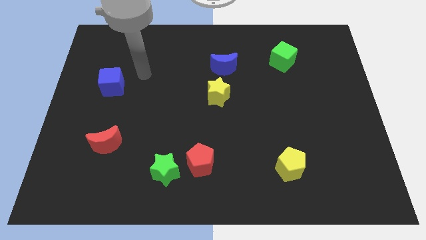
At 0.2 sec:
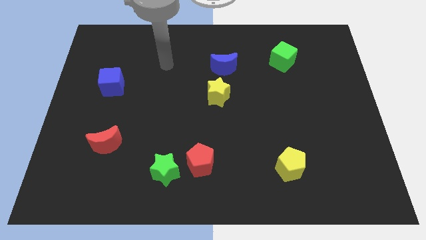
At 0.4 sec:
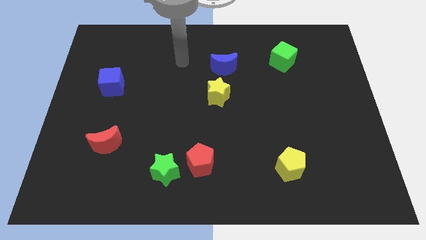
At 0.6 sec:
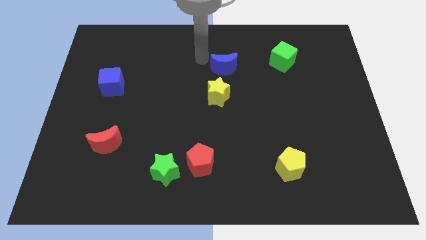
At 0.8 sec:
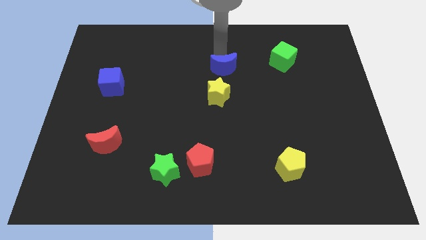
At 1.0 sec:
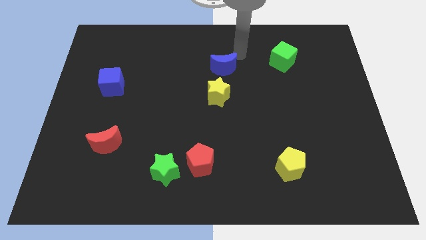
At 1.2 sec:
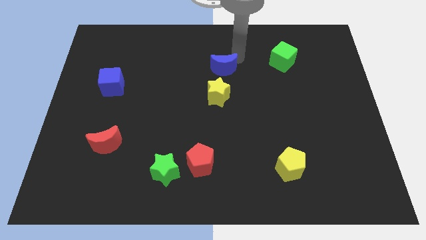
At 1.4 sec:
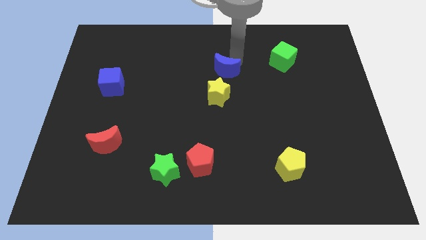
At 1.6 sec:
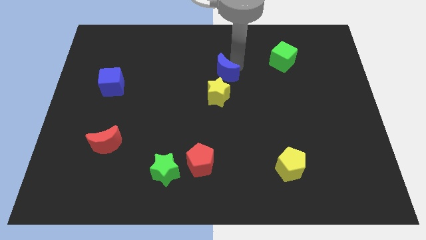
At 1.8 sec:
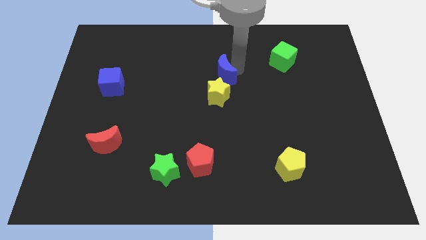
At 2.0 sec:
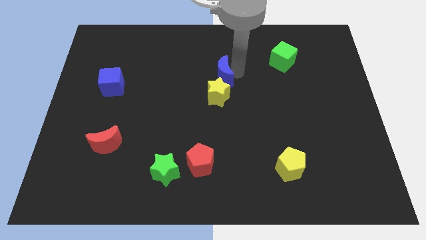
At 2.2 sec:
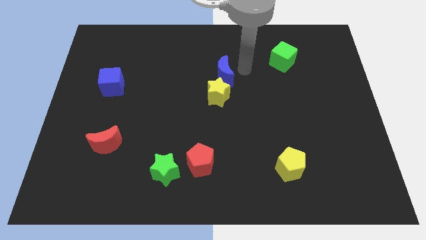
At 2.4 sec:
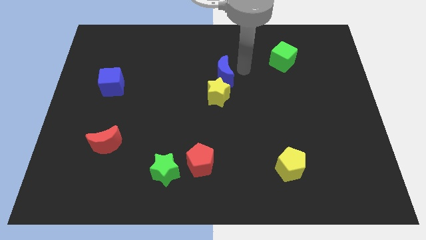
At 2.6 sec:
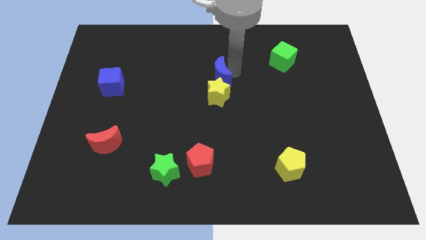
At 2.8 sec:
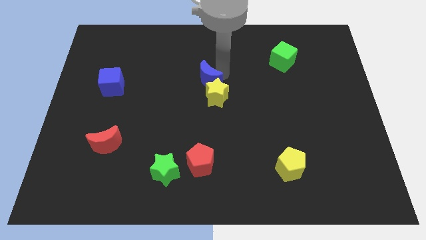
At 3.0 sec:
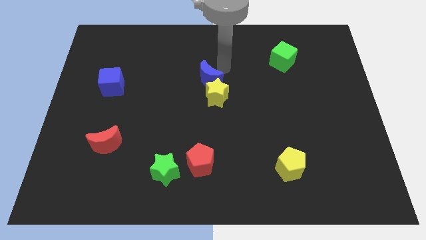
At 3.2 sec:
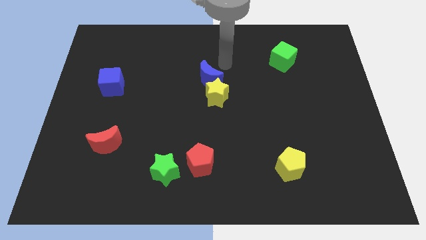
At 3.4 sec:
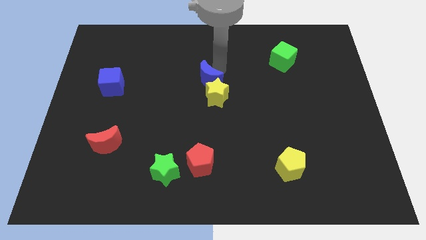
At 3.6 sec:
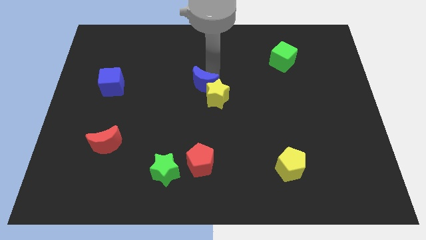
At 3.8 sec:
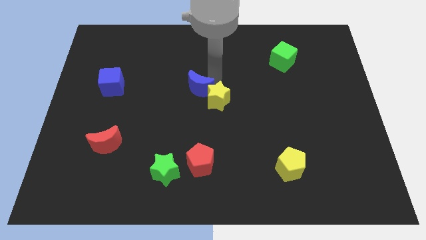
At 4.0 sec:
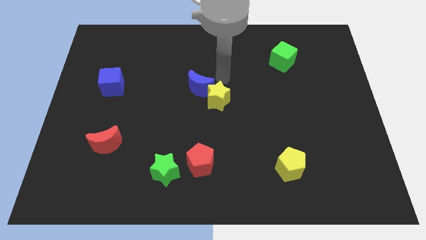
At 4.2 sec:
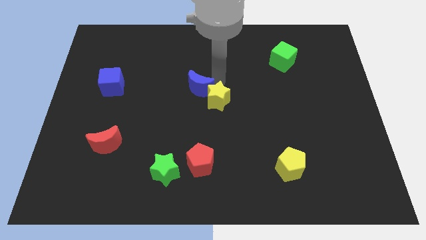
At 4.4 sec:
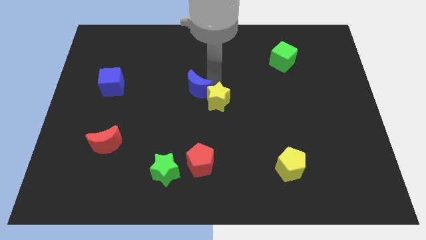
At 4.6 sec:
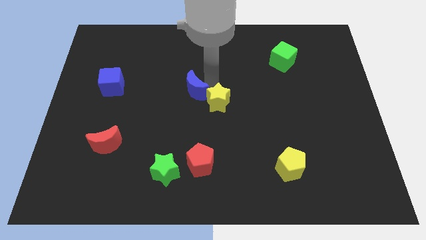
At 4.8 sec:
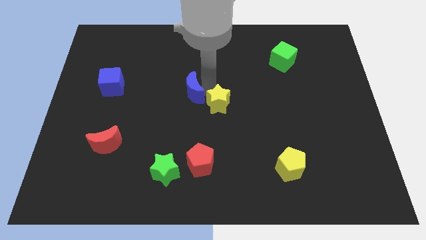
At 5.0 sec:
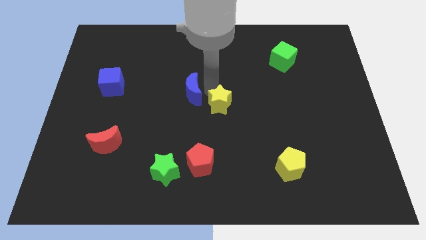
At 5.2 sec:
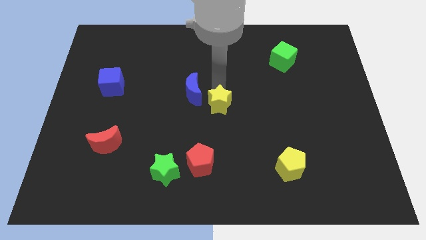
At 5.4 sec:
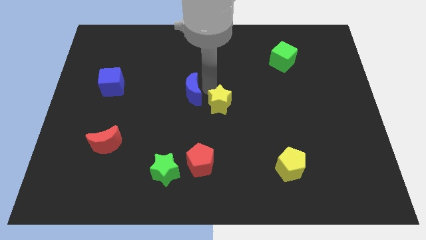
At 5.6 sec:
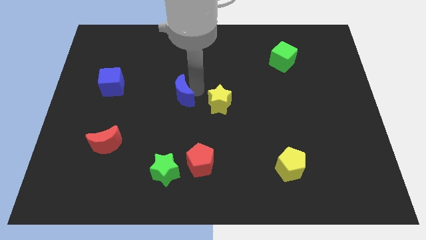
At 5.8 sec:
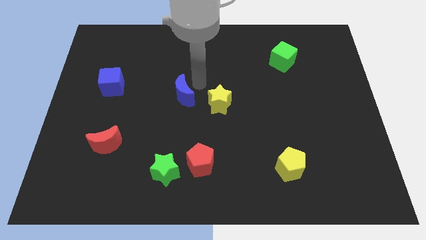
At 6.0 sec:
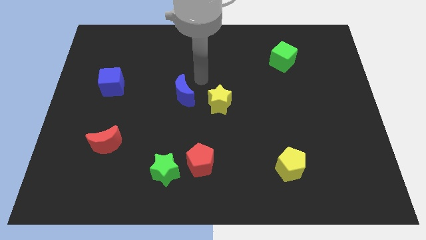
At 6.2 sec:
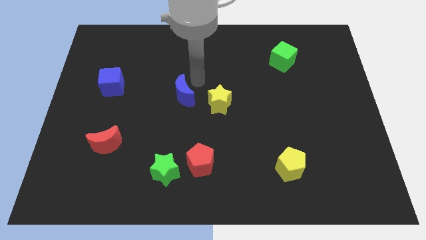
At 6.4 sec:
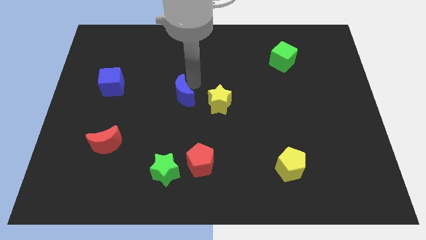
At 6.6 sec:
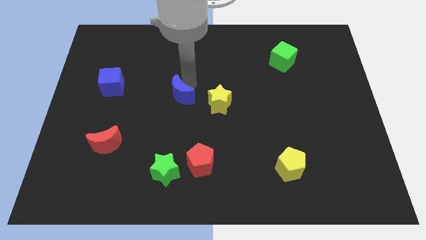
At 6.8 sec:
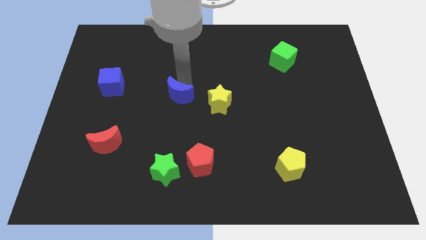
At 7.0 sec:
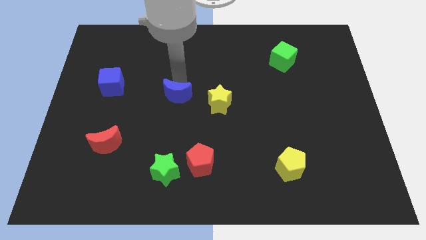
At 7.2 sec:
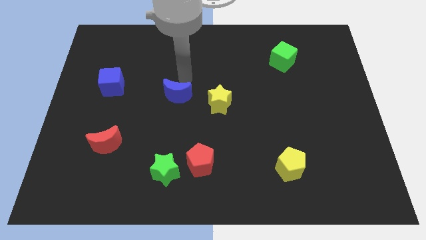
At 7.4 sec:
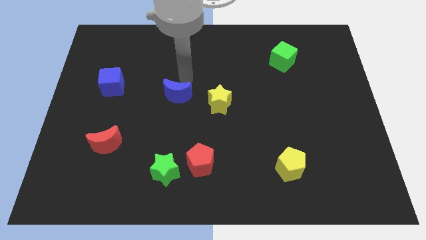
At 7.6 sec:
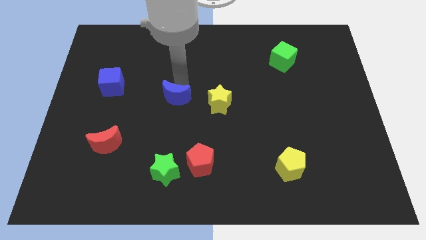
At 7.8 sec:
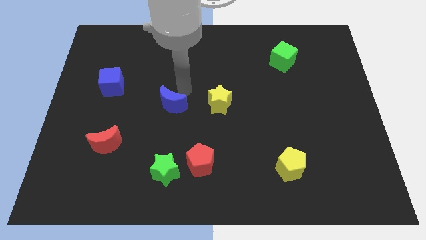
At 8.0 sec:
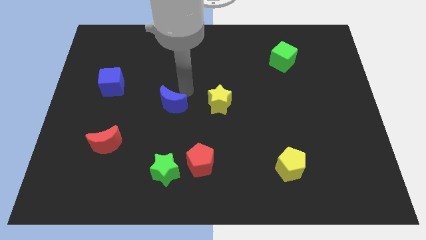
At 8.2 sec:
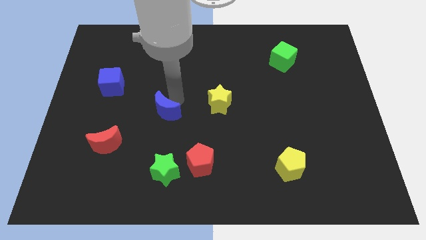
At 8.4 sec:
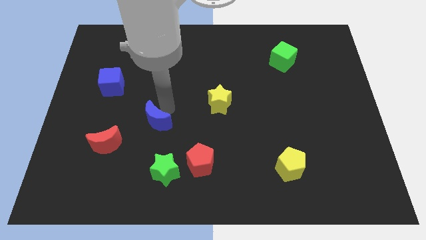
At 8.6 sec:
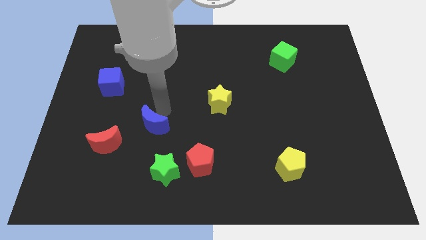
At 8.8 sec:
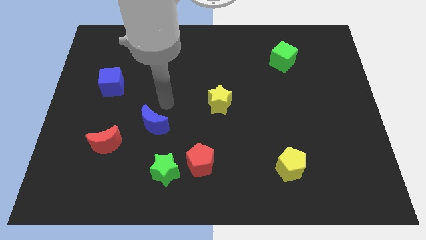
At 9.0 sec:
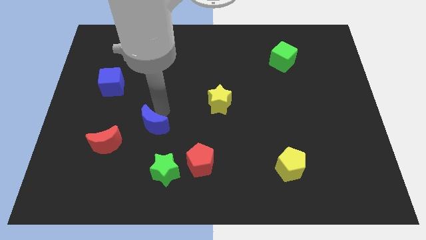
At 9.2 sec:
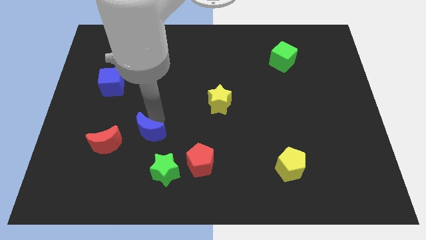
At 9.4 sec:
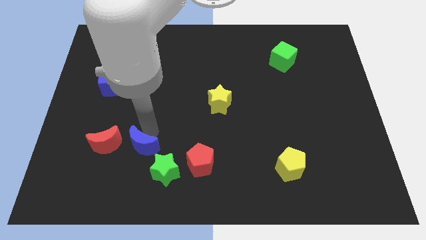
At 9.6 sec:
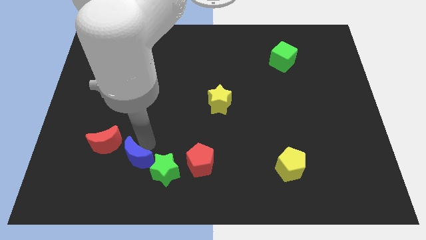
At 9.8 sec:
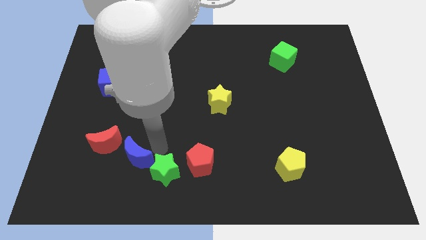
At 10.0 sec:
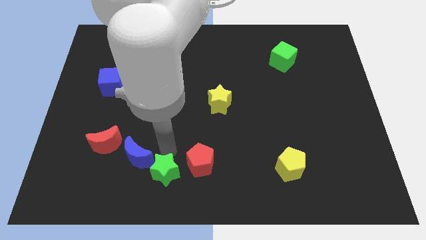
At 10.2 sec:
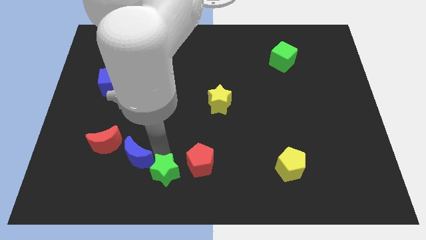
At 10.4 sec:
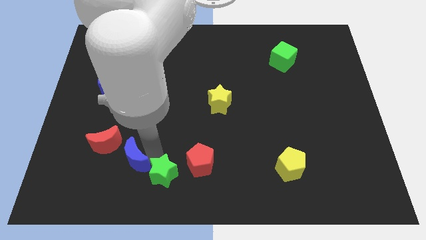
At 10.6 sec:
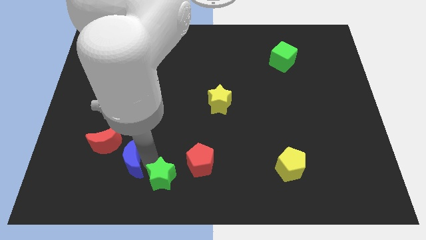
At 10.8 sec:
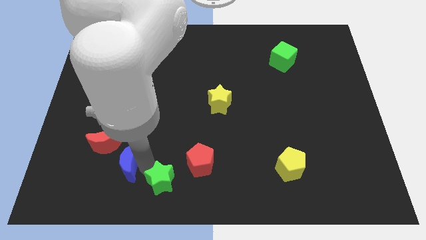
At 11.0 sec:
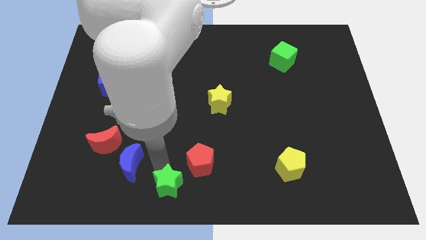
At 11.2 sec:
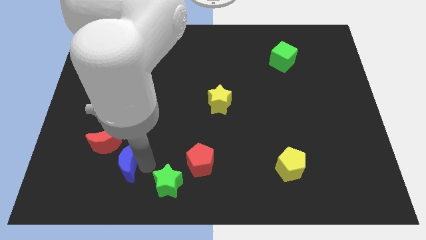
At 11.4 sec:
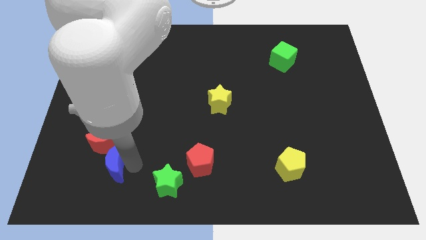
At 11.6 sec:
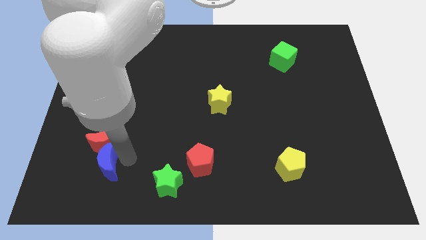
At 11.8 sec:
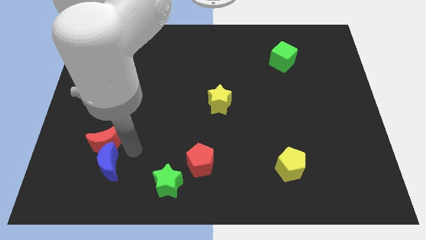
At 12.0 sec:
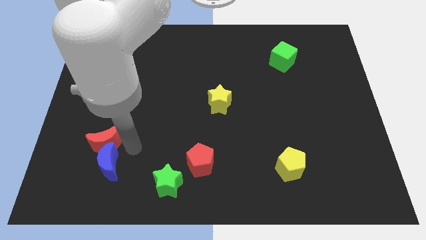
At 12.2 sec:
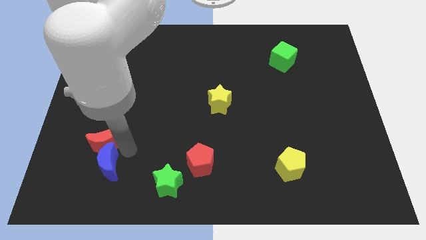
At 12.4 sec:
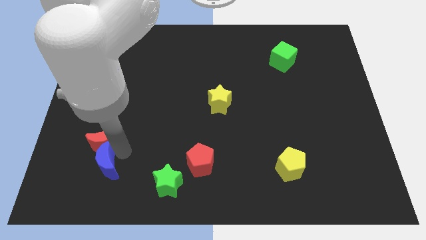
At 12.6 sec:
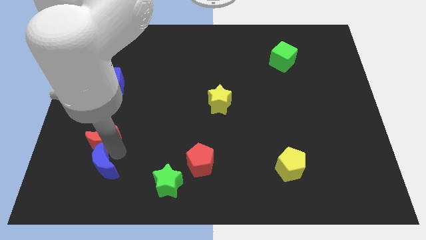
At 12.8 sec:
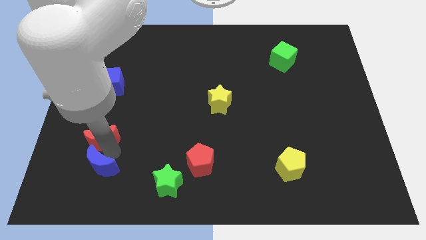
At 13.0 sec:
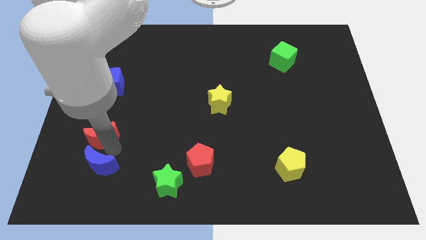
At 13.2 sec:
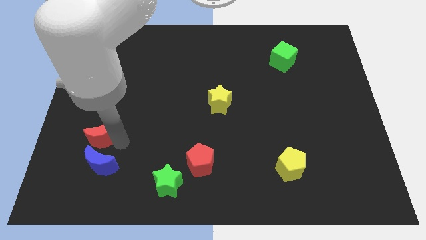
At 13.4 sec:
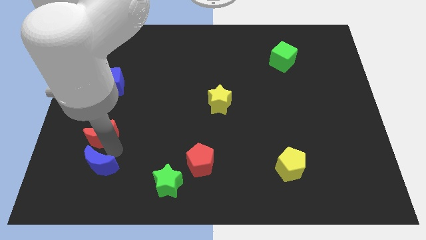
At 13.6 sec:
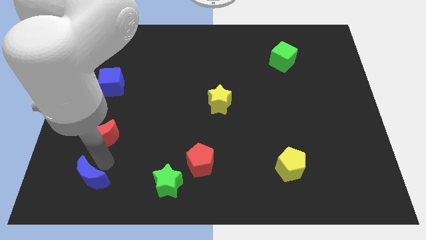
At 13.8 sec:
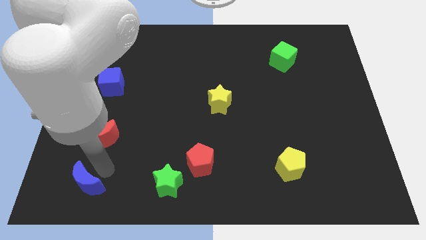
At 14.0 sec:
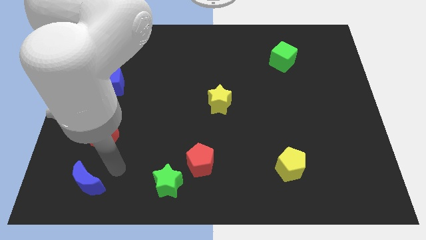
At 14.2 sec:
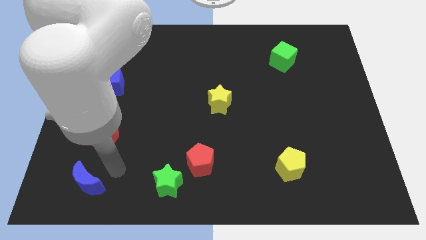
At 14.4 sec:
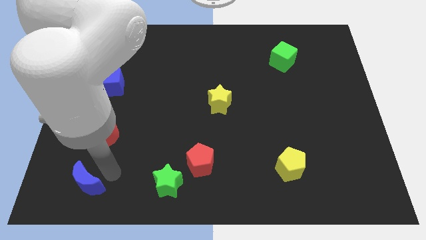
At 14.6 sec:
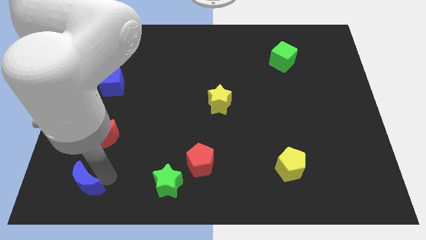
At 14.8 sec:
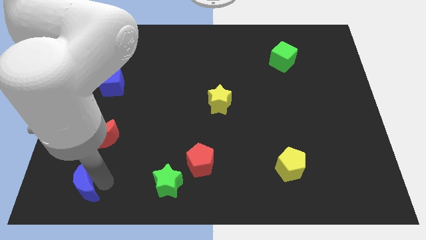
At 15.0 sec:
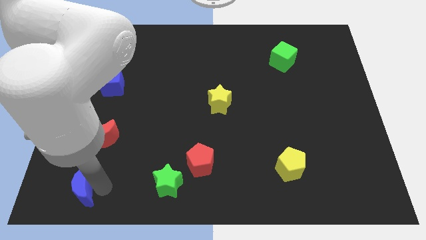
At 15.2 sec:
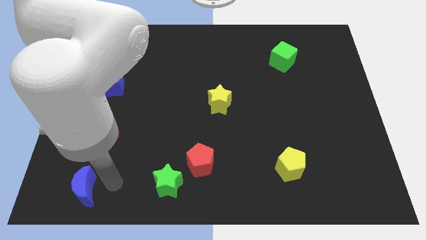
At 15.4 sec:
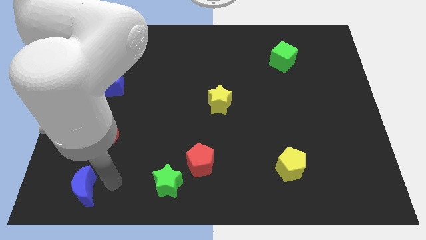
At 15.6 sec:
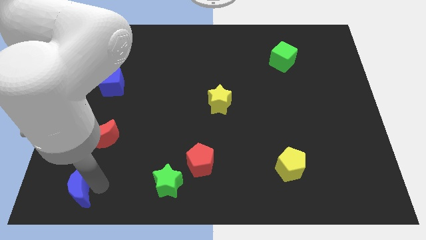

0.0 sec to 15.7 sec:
put the blue moon to the bottom left
